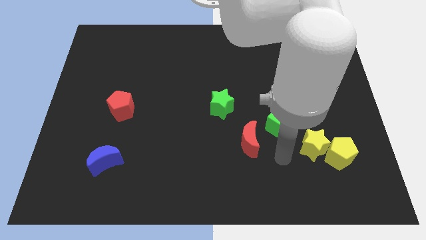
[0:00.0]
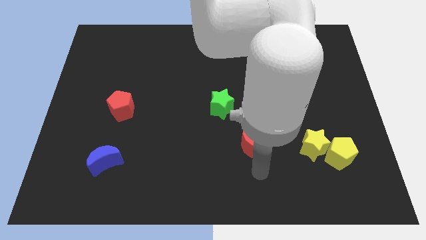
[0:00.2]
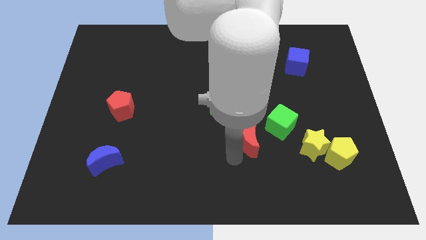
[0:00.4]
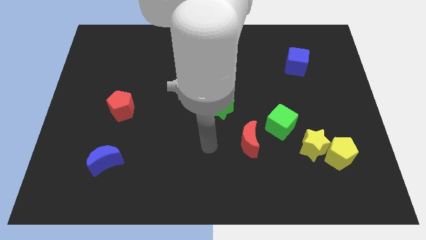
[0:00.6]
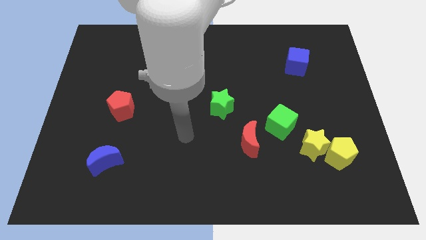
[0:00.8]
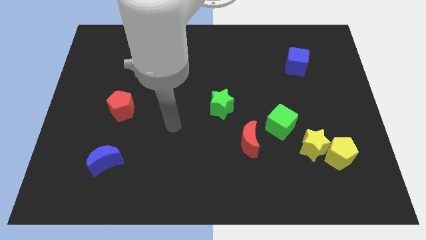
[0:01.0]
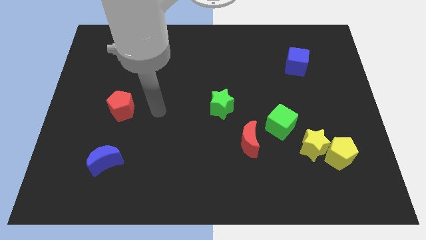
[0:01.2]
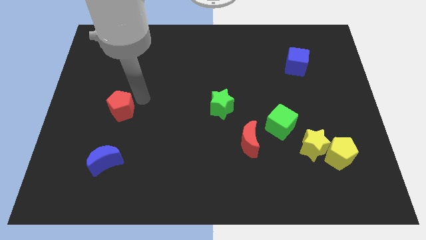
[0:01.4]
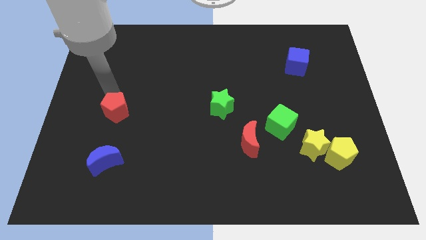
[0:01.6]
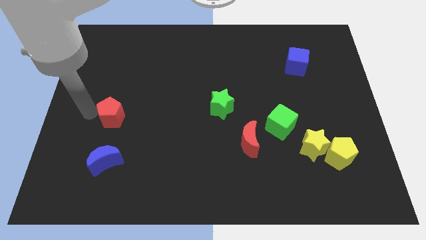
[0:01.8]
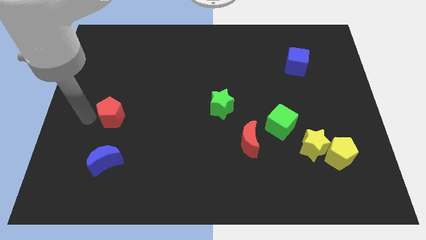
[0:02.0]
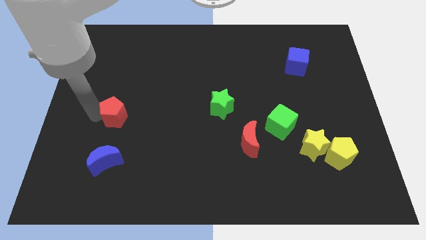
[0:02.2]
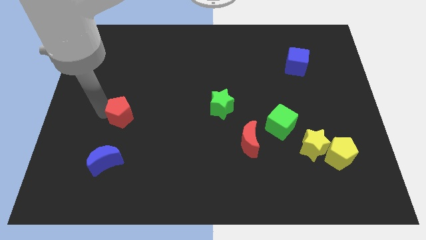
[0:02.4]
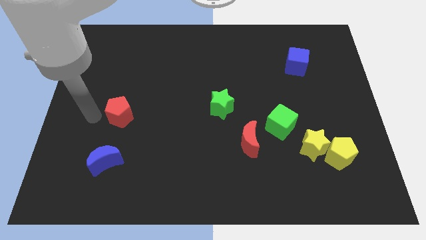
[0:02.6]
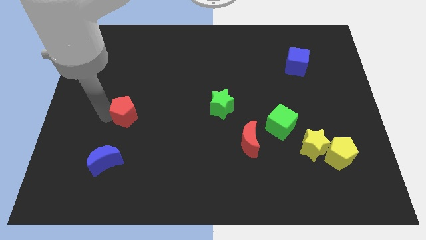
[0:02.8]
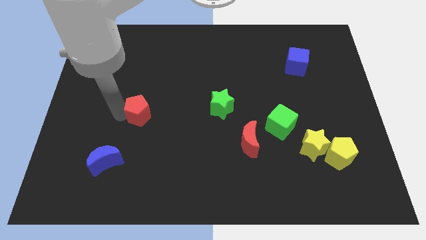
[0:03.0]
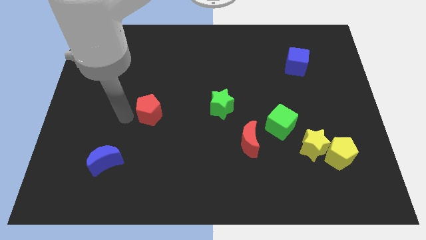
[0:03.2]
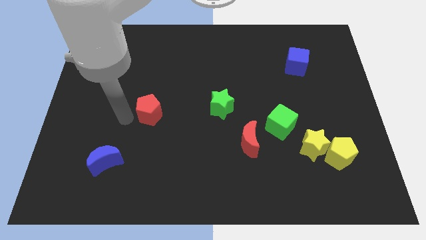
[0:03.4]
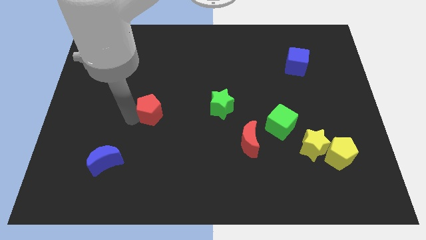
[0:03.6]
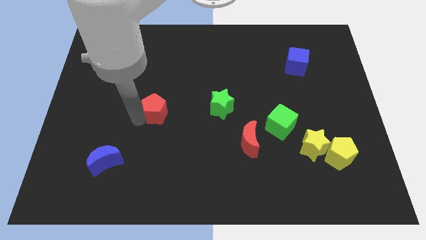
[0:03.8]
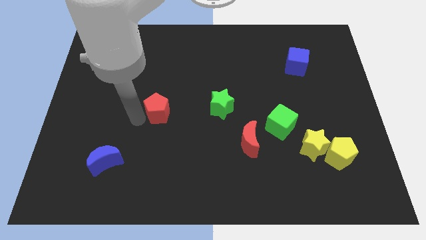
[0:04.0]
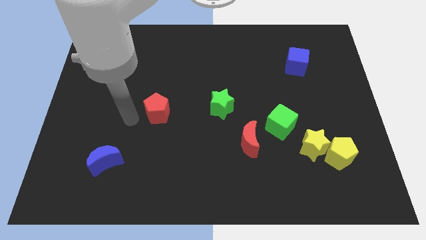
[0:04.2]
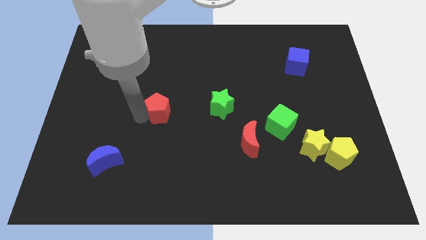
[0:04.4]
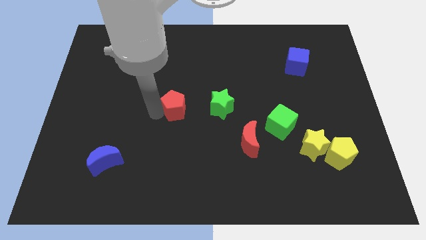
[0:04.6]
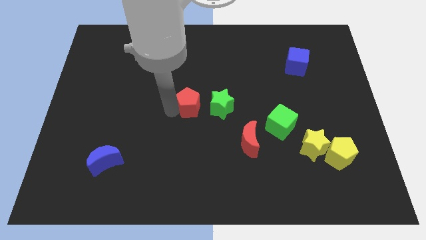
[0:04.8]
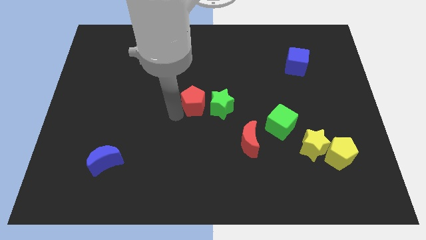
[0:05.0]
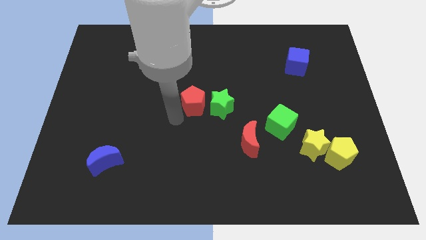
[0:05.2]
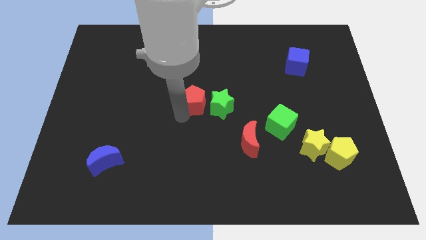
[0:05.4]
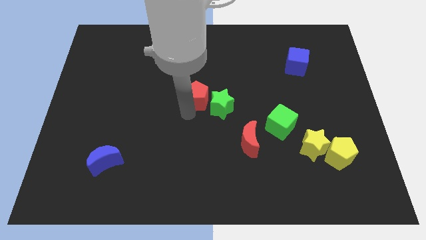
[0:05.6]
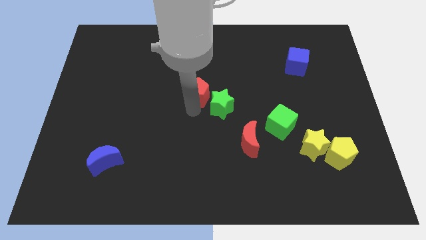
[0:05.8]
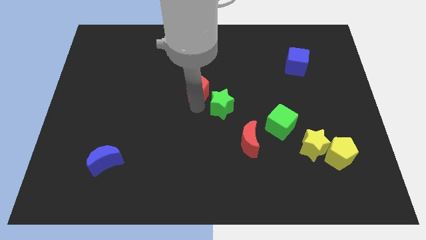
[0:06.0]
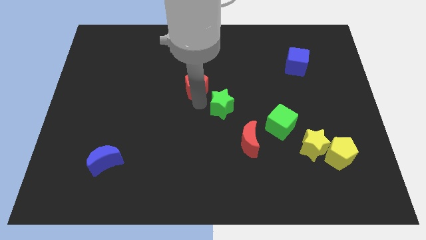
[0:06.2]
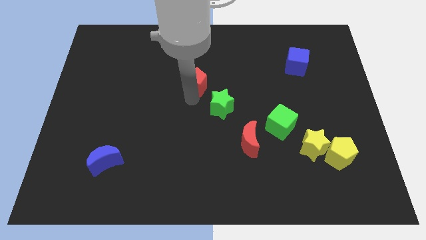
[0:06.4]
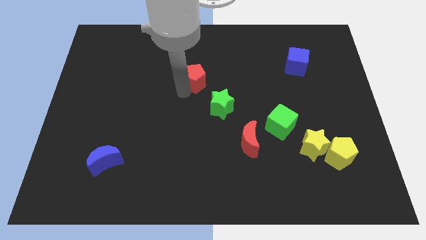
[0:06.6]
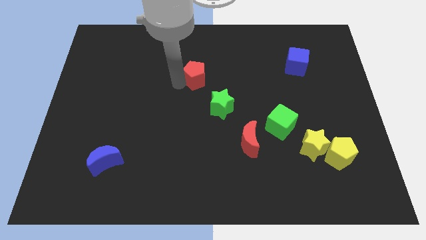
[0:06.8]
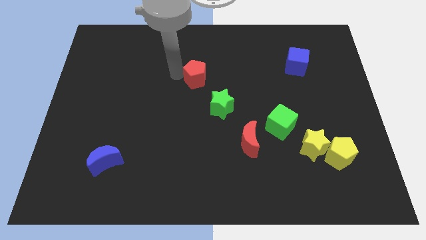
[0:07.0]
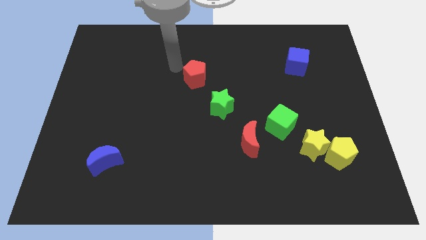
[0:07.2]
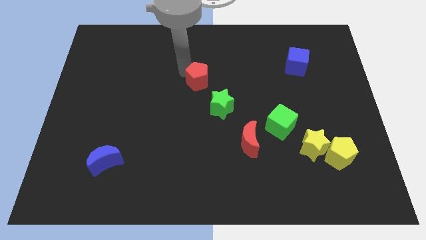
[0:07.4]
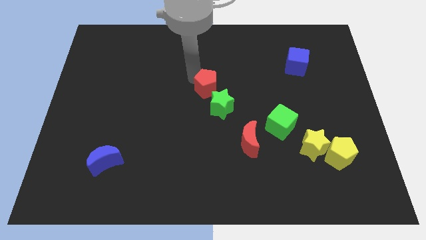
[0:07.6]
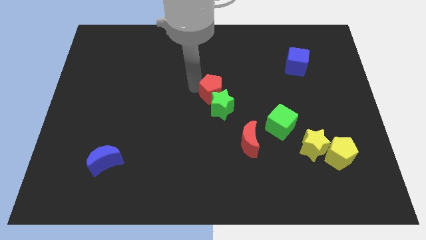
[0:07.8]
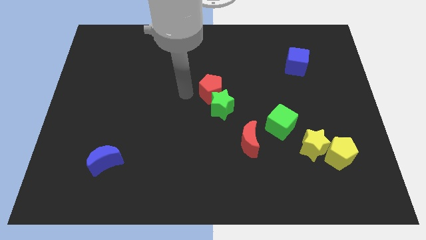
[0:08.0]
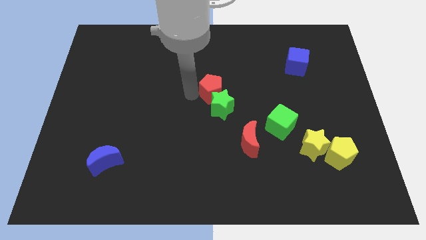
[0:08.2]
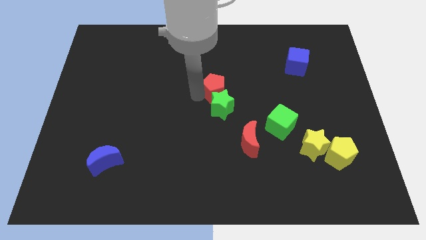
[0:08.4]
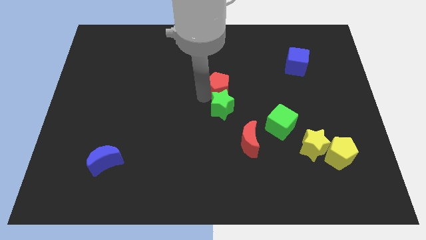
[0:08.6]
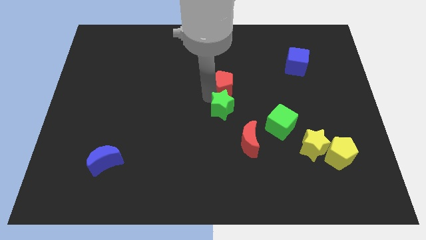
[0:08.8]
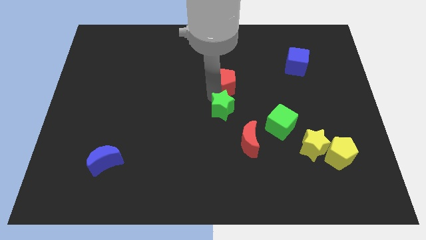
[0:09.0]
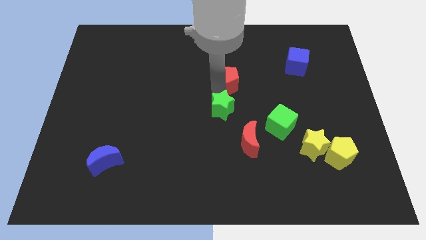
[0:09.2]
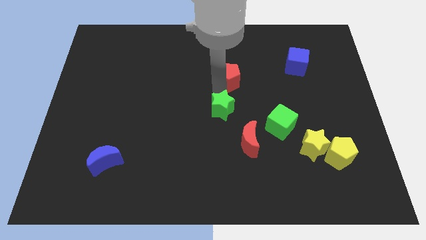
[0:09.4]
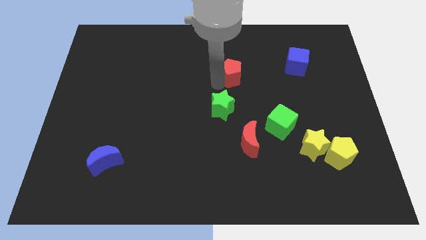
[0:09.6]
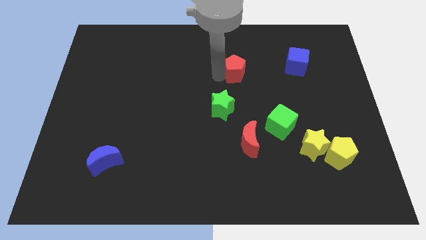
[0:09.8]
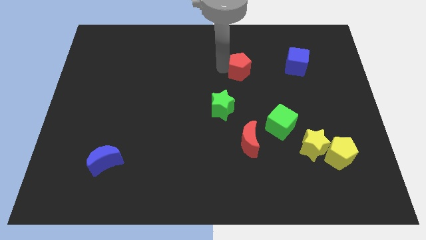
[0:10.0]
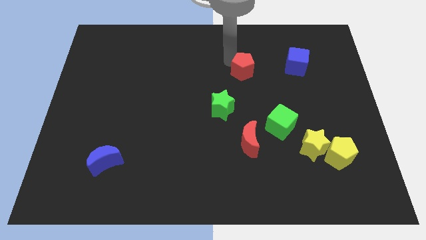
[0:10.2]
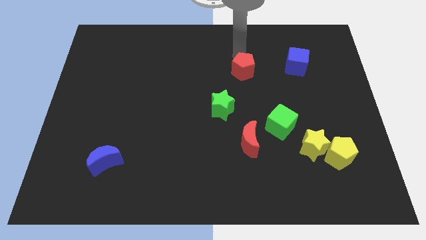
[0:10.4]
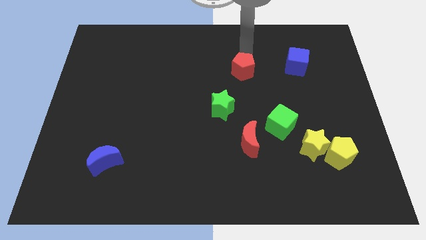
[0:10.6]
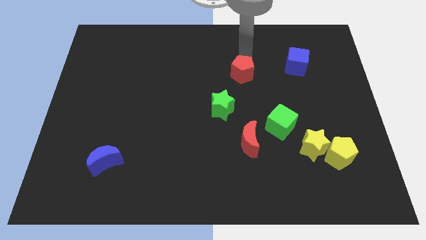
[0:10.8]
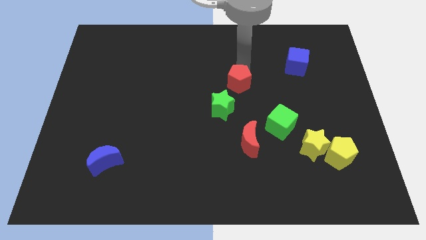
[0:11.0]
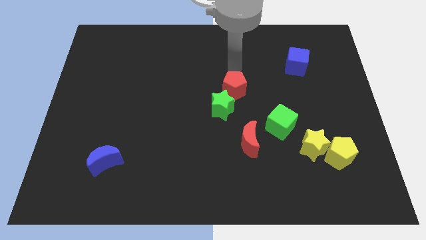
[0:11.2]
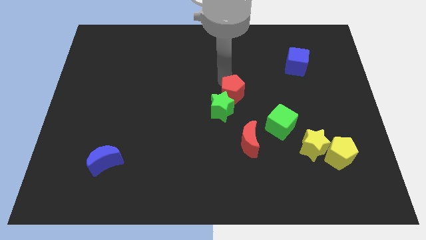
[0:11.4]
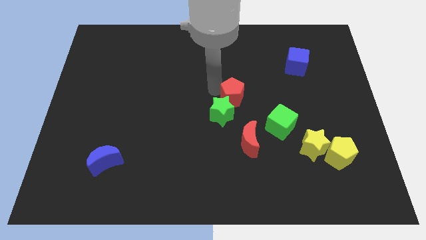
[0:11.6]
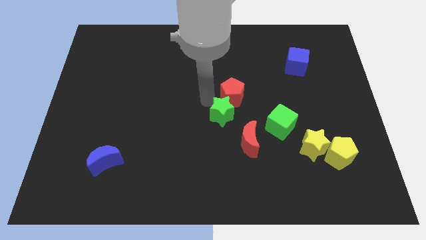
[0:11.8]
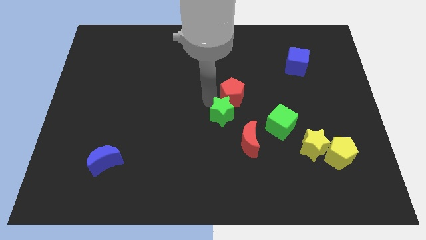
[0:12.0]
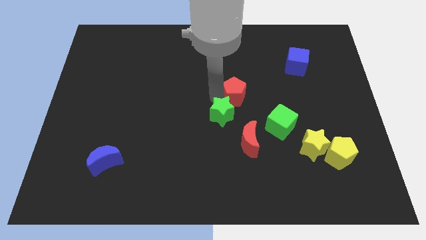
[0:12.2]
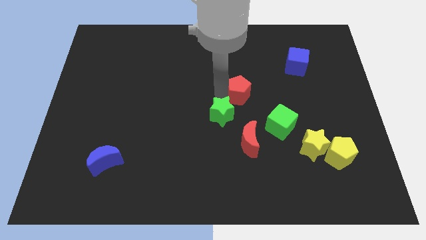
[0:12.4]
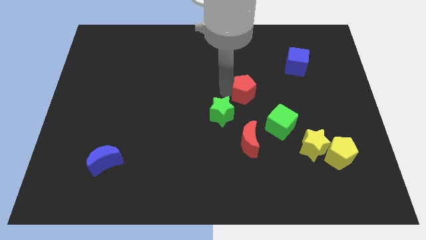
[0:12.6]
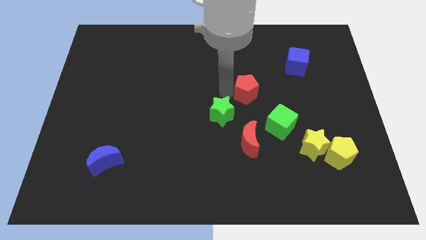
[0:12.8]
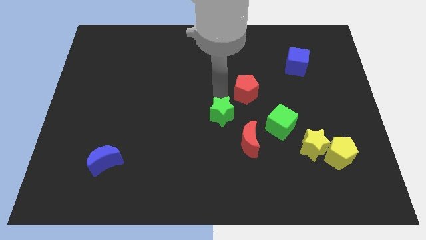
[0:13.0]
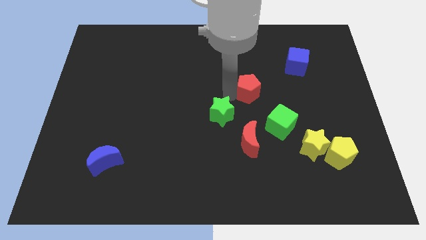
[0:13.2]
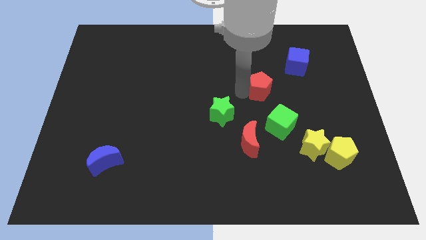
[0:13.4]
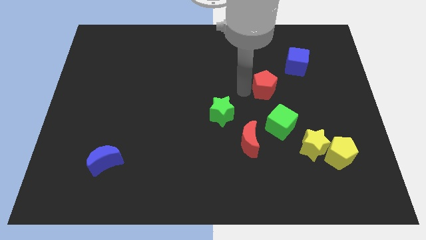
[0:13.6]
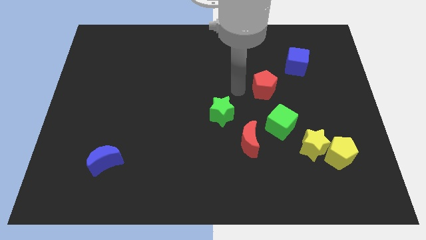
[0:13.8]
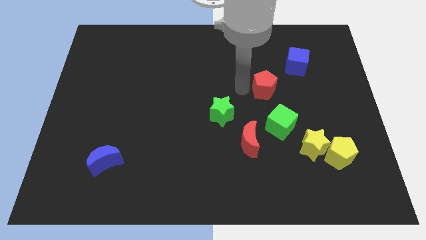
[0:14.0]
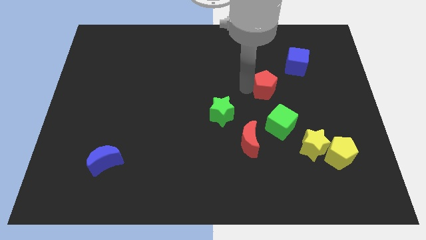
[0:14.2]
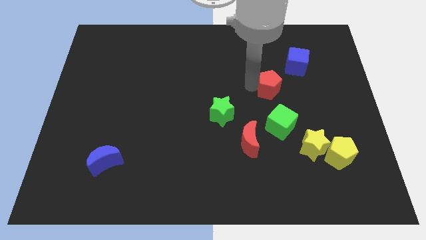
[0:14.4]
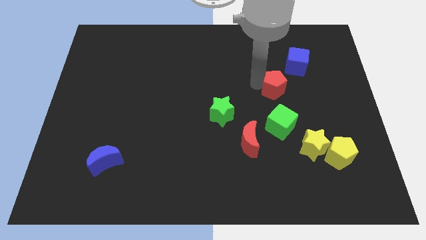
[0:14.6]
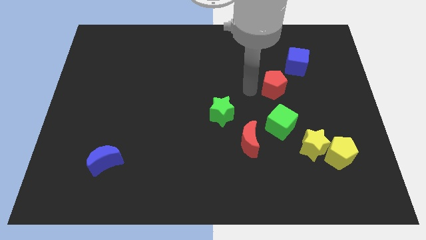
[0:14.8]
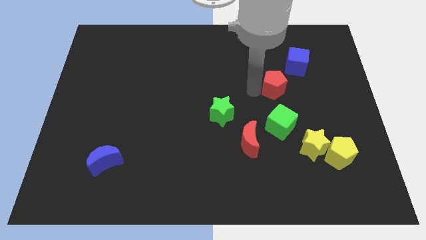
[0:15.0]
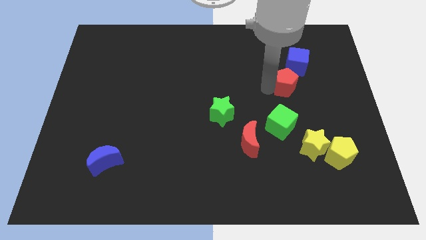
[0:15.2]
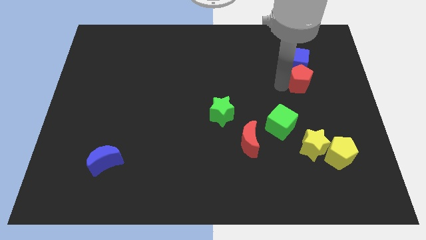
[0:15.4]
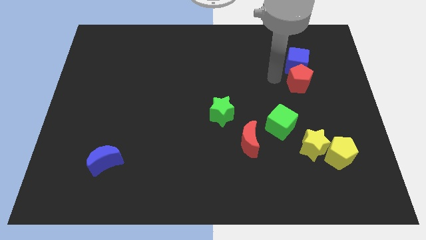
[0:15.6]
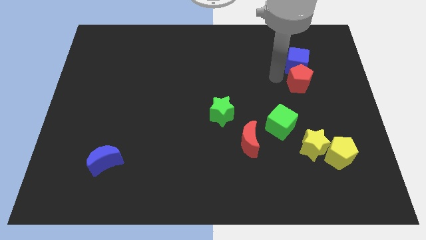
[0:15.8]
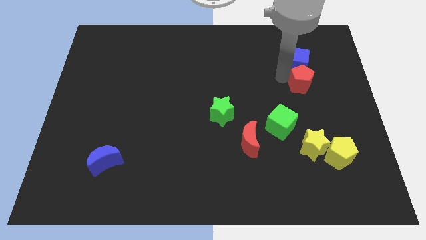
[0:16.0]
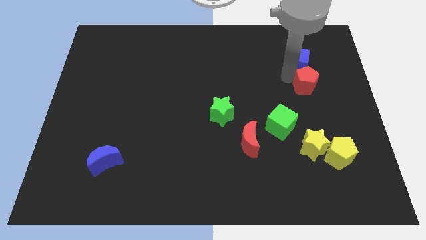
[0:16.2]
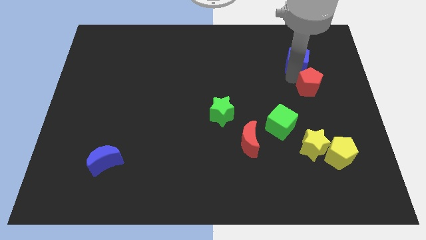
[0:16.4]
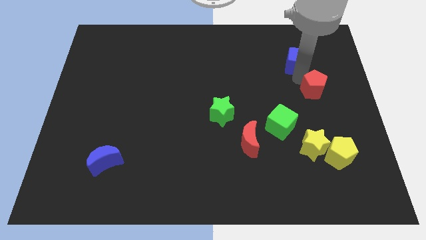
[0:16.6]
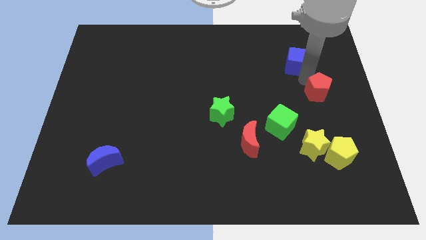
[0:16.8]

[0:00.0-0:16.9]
push the red pentagon to the right side of the board
